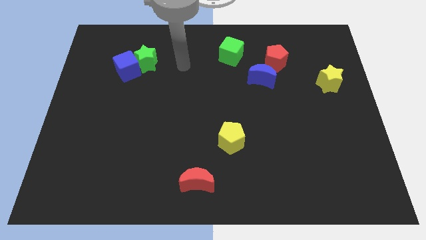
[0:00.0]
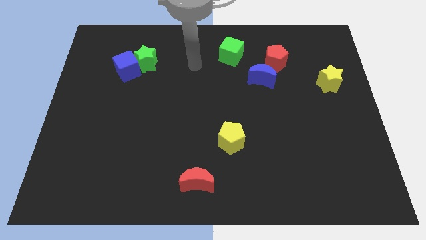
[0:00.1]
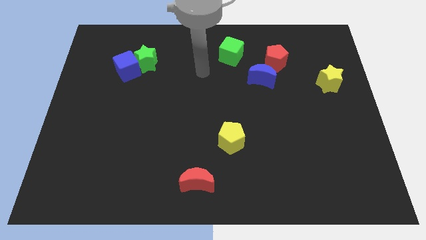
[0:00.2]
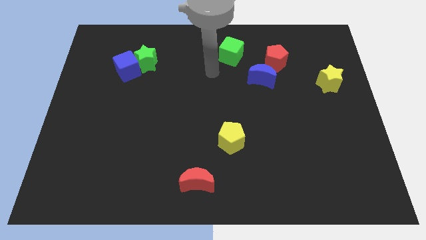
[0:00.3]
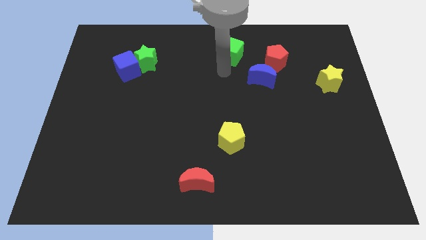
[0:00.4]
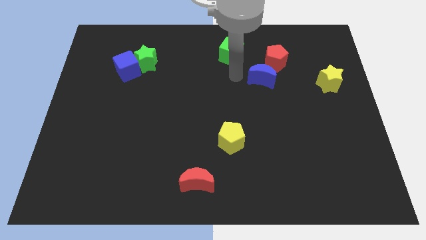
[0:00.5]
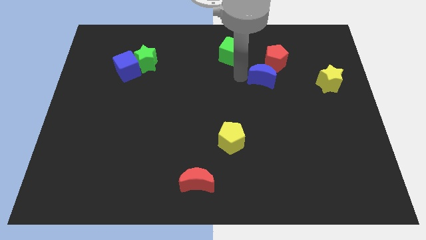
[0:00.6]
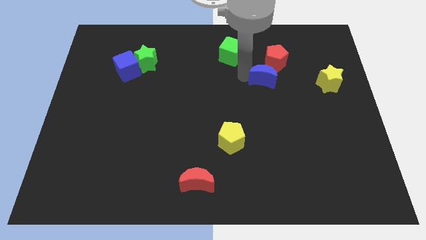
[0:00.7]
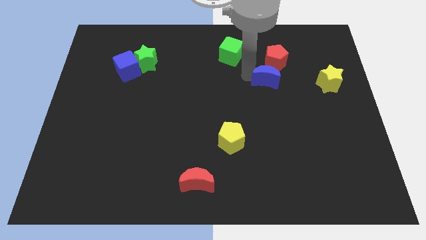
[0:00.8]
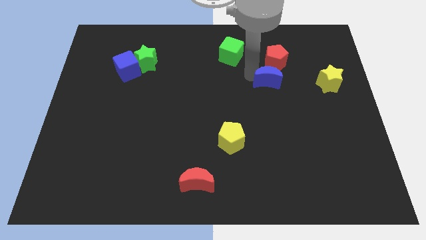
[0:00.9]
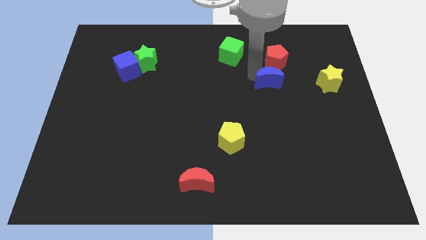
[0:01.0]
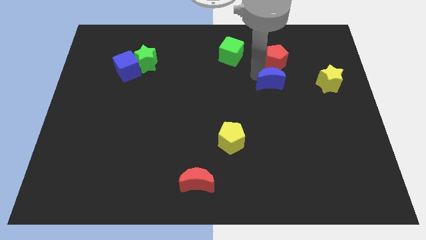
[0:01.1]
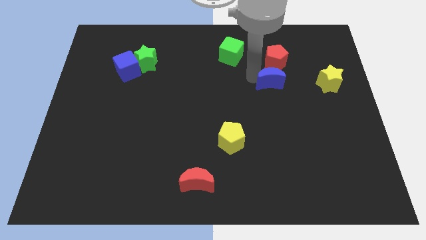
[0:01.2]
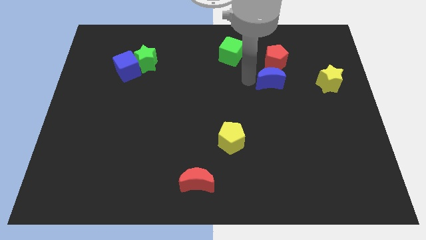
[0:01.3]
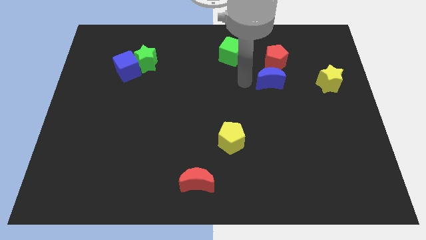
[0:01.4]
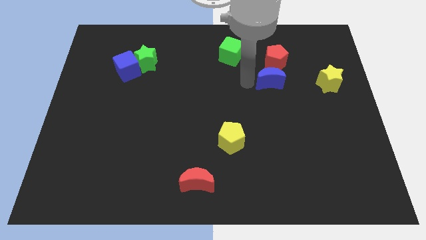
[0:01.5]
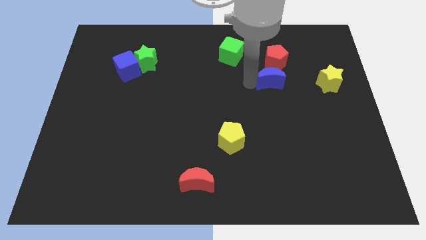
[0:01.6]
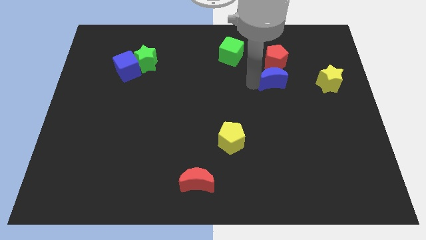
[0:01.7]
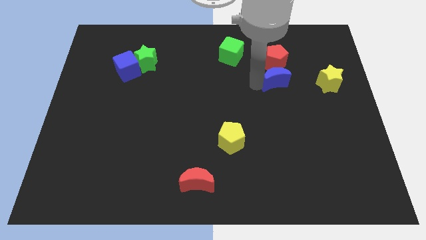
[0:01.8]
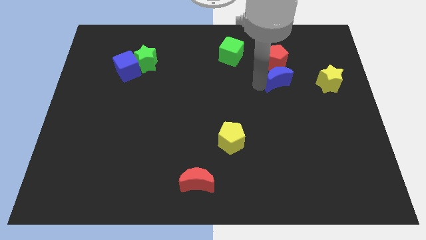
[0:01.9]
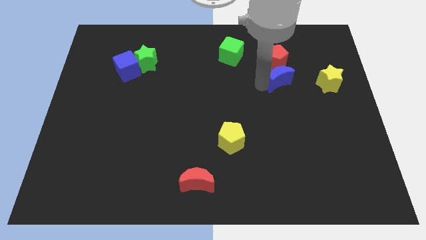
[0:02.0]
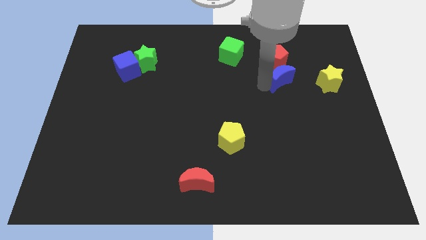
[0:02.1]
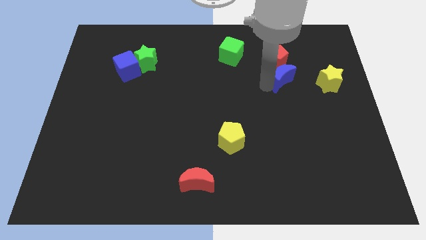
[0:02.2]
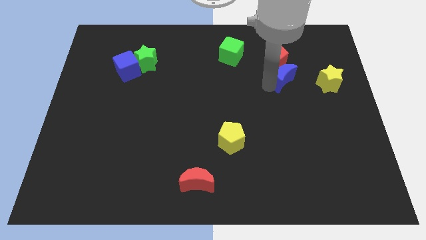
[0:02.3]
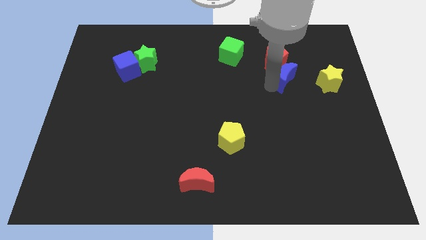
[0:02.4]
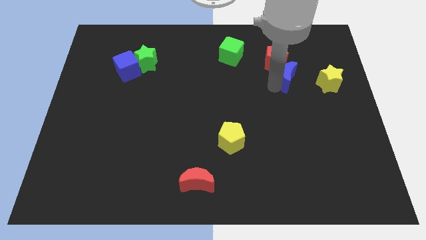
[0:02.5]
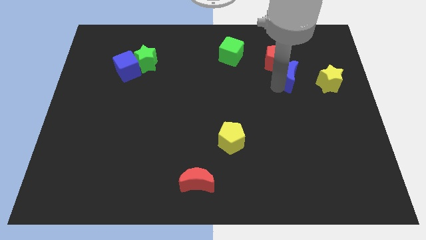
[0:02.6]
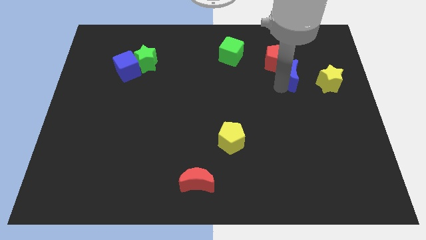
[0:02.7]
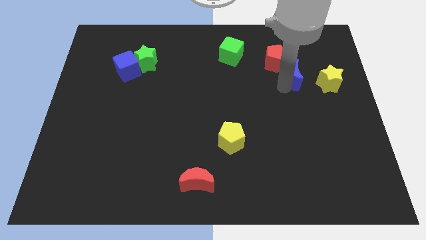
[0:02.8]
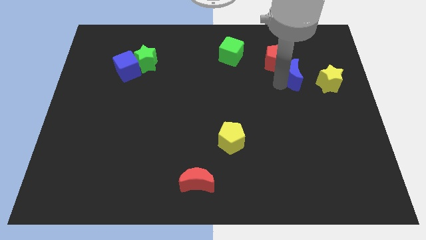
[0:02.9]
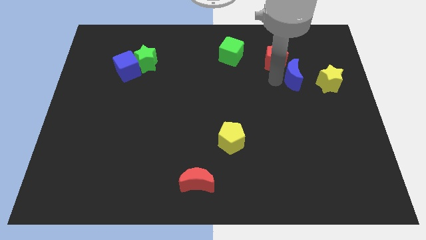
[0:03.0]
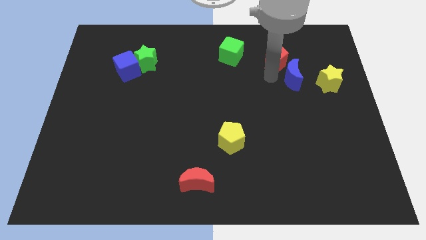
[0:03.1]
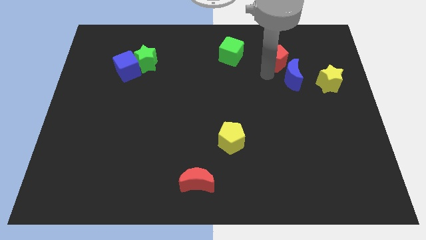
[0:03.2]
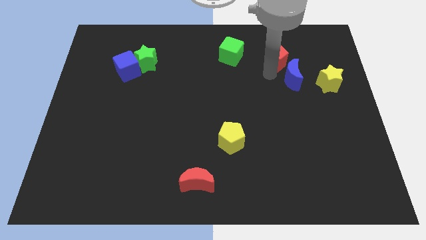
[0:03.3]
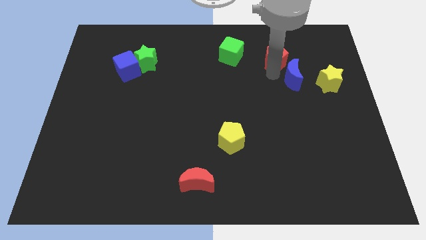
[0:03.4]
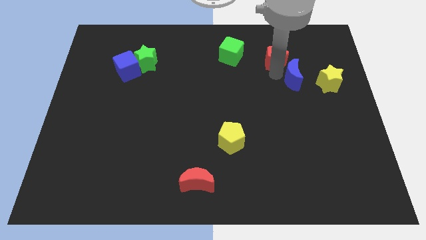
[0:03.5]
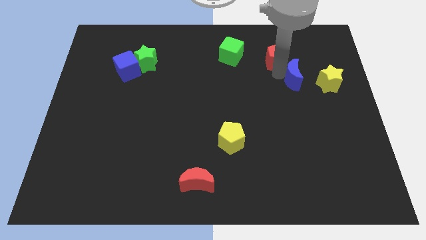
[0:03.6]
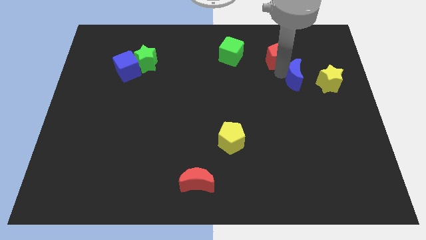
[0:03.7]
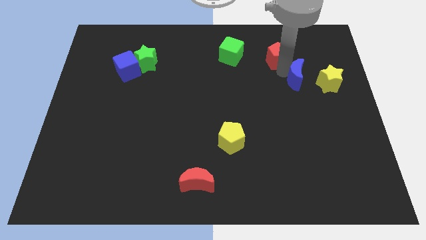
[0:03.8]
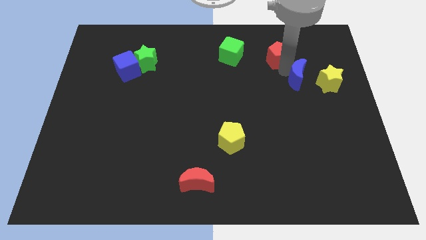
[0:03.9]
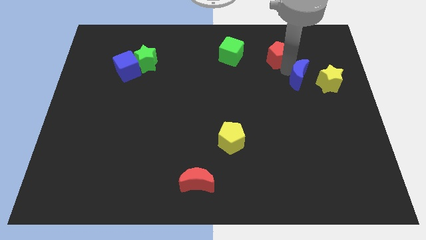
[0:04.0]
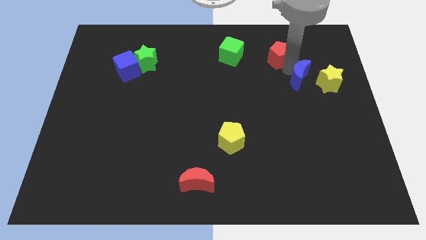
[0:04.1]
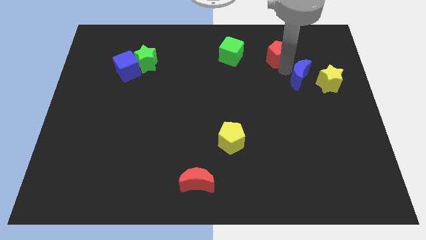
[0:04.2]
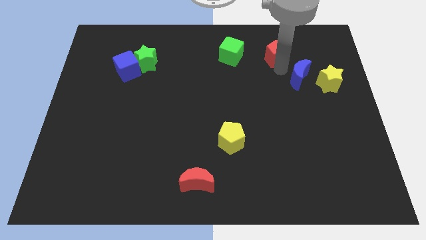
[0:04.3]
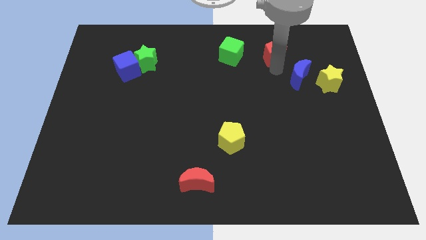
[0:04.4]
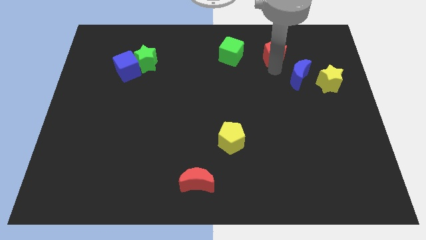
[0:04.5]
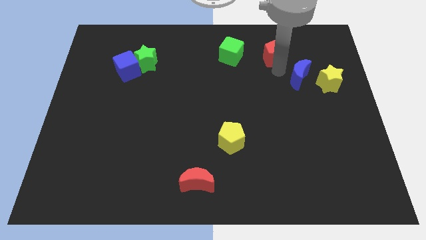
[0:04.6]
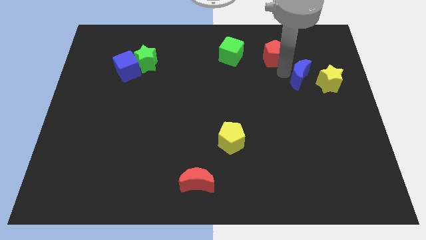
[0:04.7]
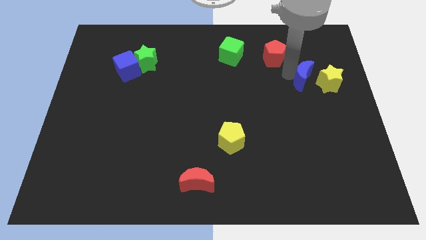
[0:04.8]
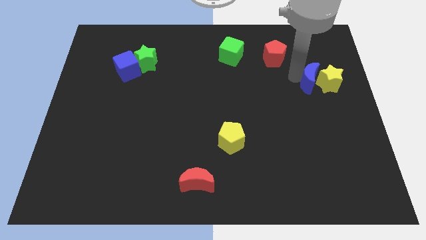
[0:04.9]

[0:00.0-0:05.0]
move the blue moon next to the yellow star

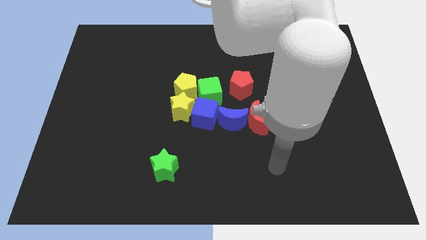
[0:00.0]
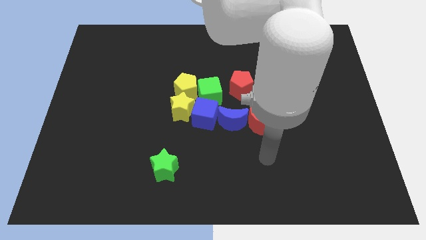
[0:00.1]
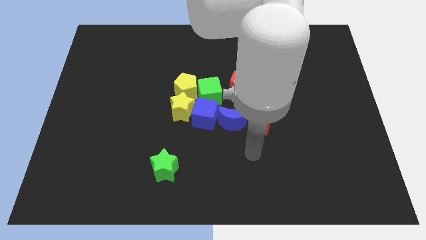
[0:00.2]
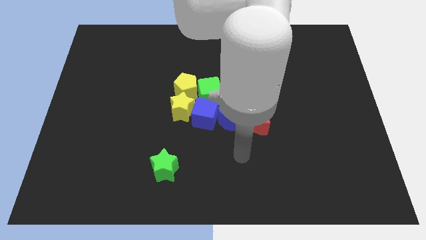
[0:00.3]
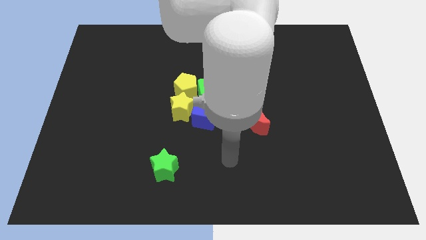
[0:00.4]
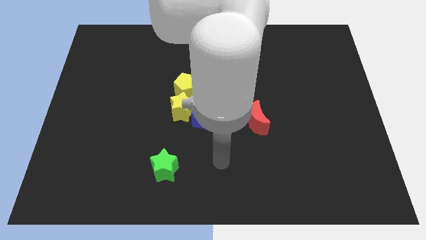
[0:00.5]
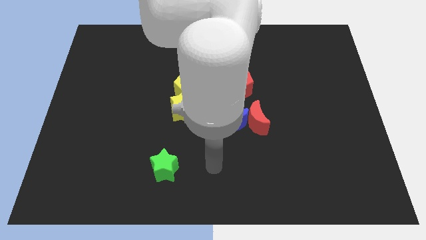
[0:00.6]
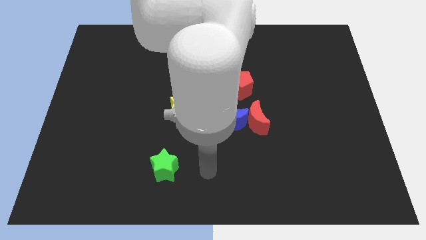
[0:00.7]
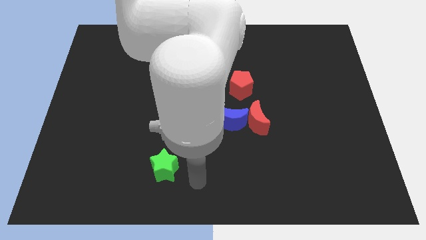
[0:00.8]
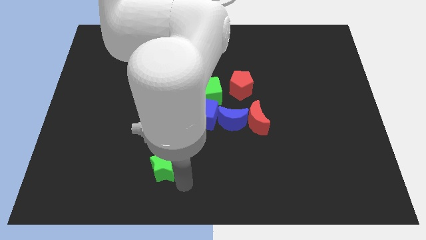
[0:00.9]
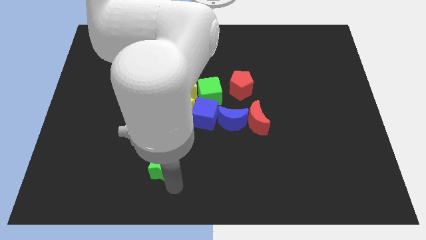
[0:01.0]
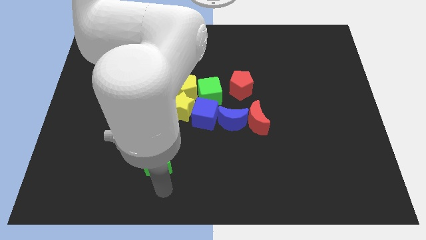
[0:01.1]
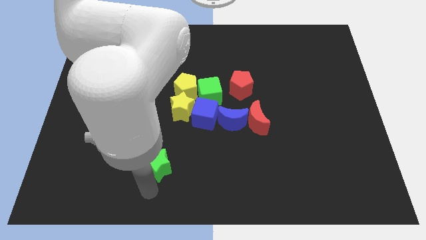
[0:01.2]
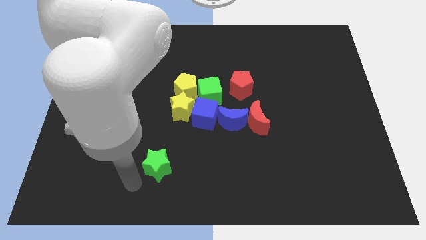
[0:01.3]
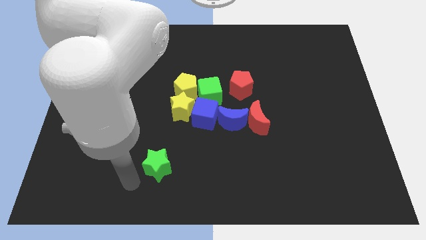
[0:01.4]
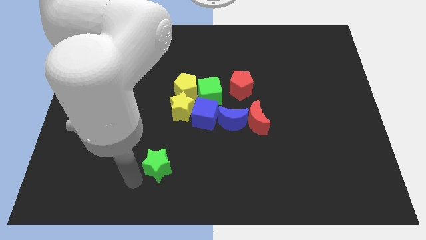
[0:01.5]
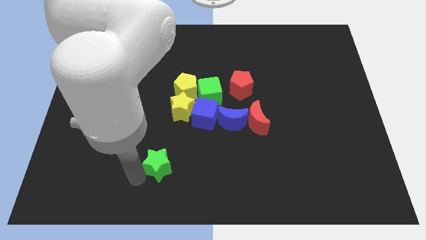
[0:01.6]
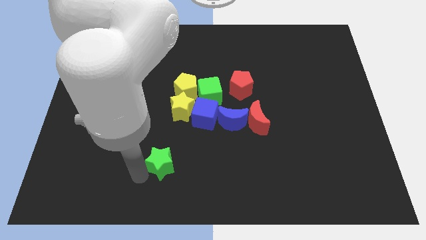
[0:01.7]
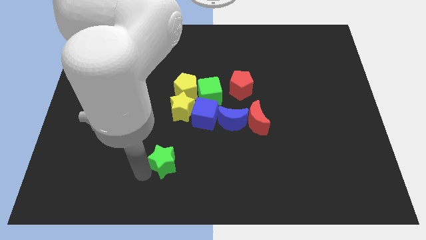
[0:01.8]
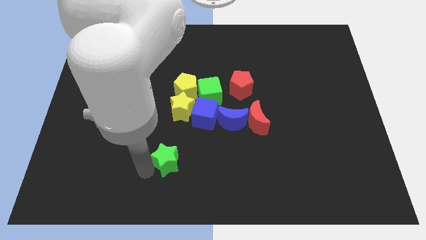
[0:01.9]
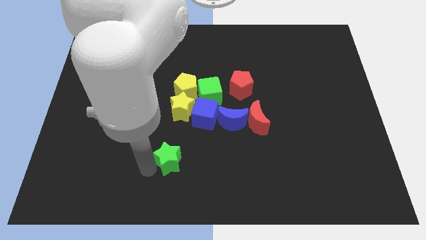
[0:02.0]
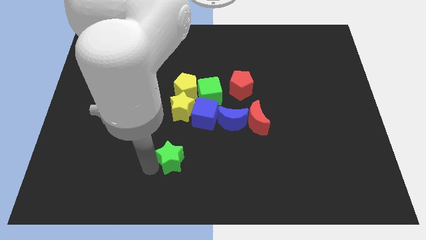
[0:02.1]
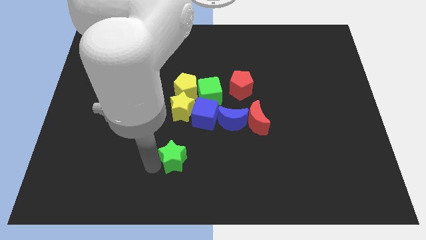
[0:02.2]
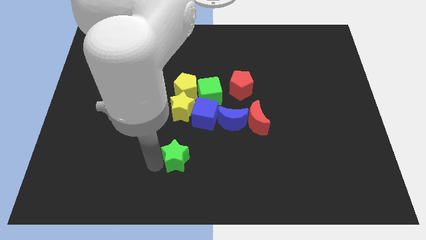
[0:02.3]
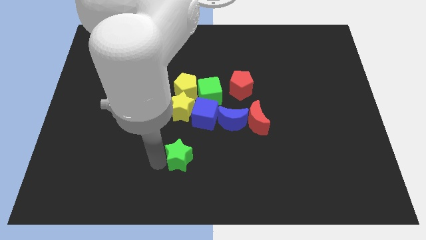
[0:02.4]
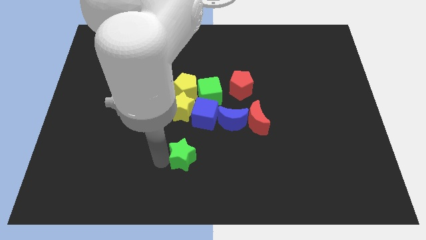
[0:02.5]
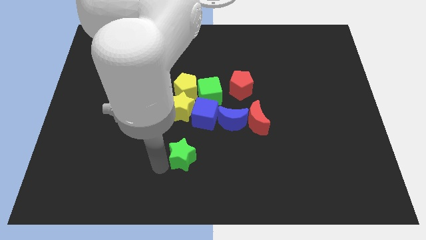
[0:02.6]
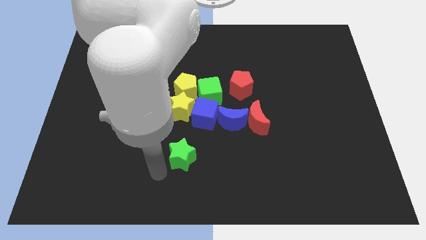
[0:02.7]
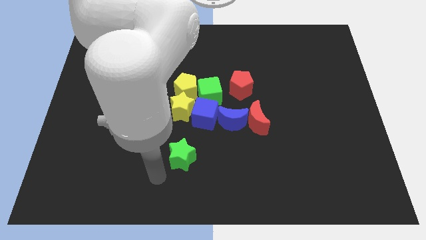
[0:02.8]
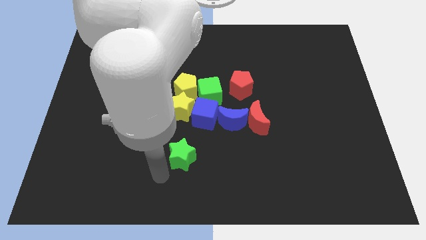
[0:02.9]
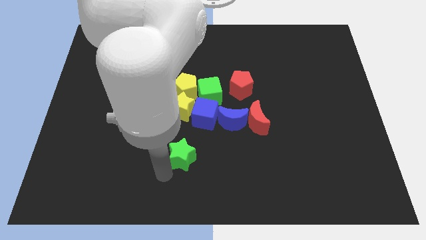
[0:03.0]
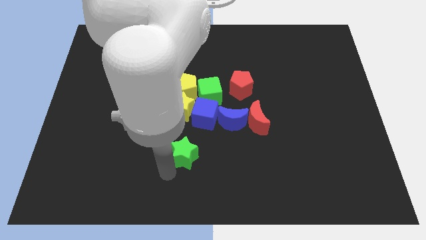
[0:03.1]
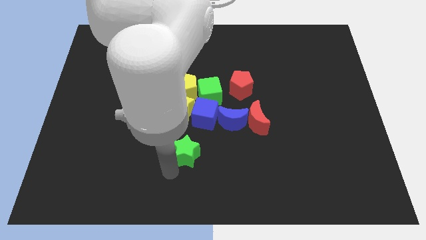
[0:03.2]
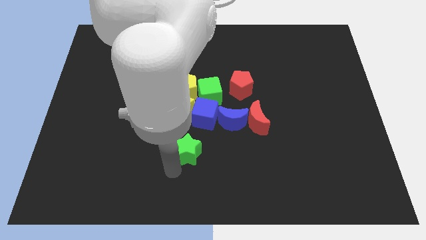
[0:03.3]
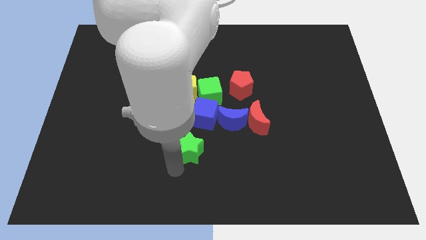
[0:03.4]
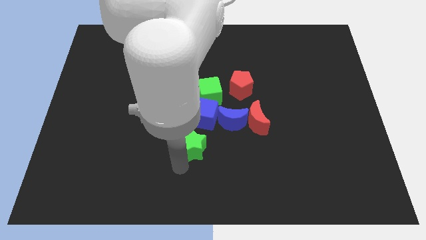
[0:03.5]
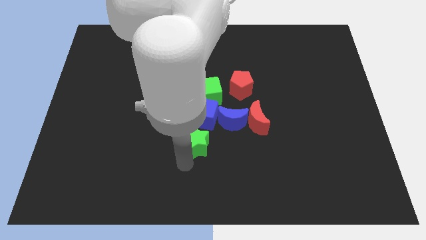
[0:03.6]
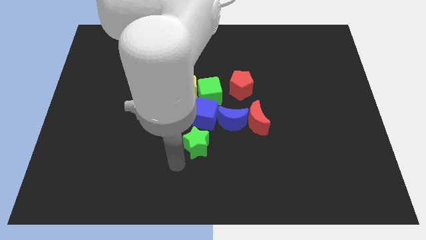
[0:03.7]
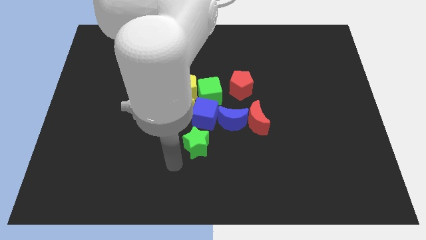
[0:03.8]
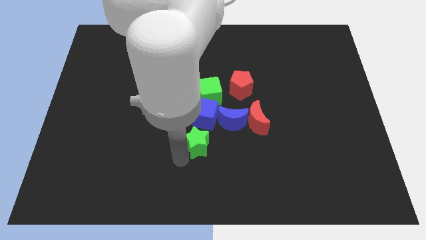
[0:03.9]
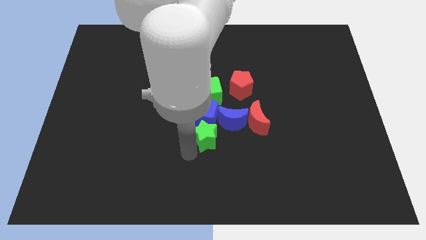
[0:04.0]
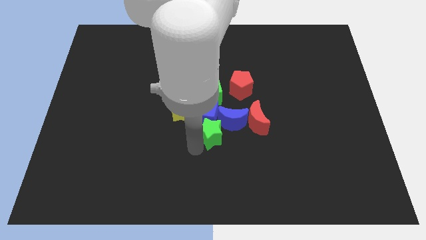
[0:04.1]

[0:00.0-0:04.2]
slide the green star close to the blue moon
